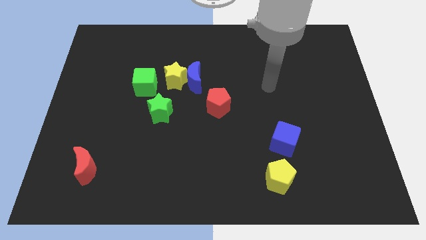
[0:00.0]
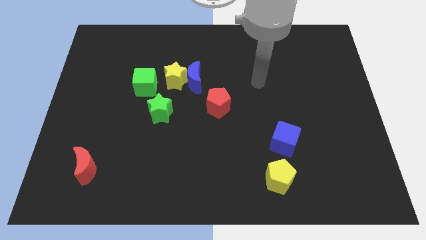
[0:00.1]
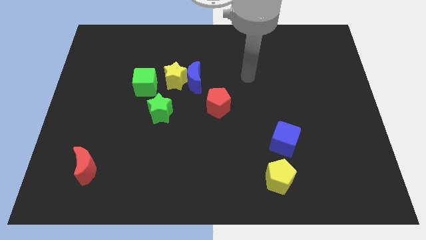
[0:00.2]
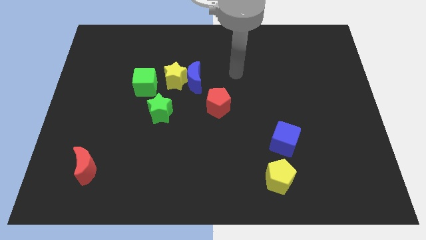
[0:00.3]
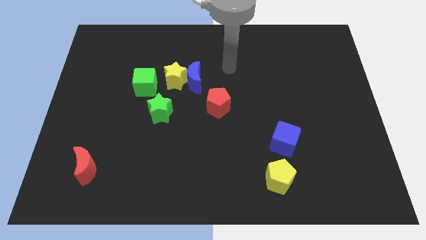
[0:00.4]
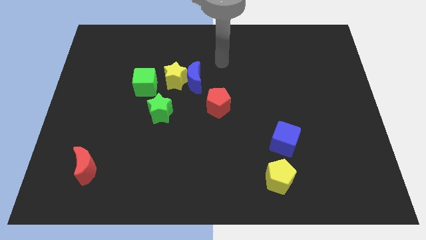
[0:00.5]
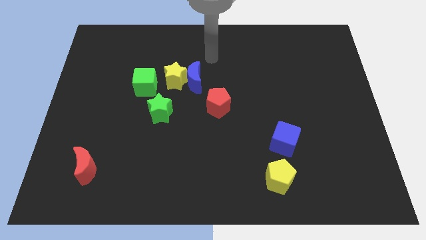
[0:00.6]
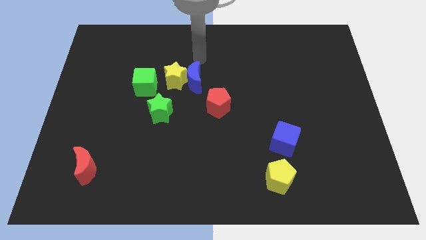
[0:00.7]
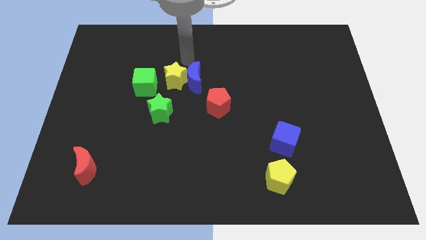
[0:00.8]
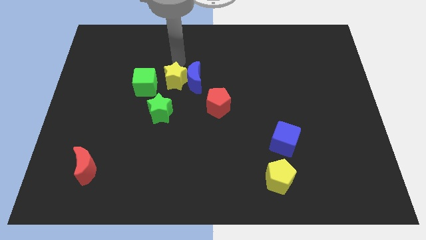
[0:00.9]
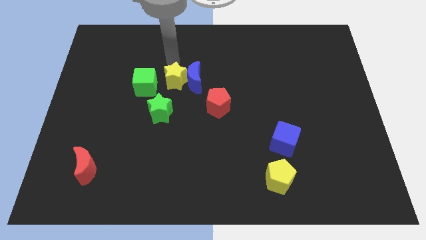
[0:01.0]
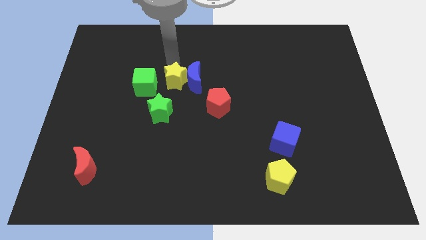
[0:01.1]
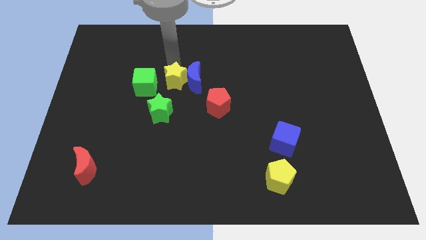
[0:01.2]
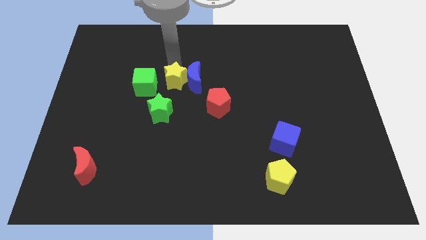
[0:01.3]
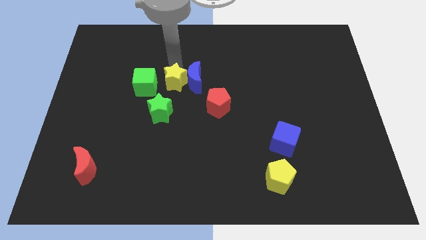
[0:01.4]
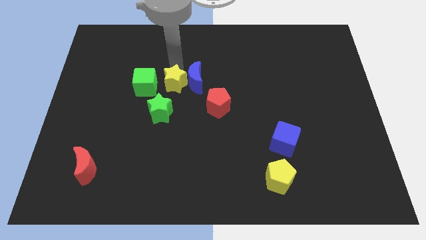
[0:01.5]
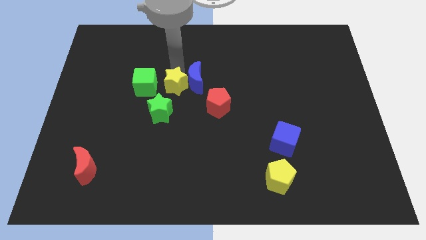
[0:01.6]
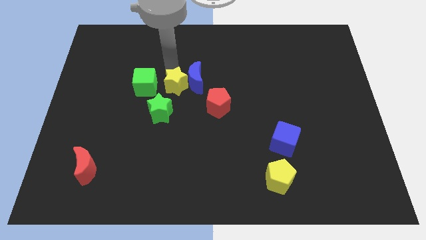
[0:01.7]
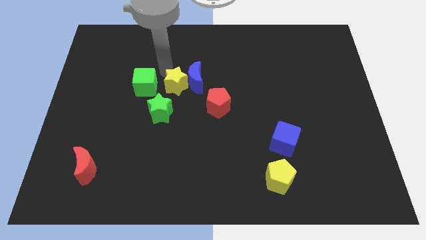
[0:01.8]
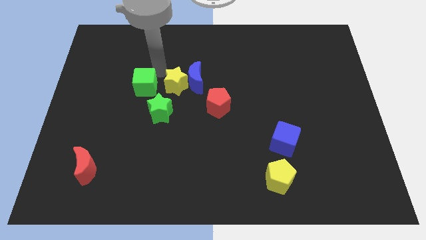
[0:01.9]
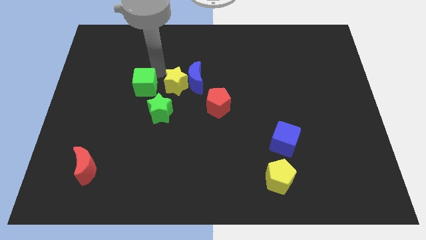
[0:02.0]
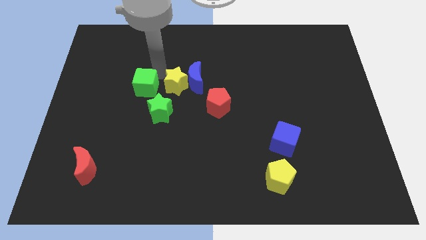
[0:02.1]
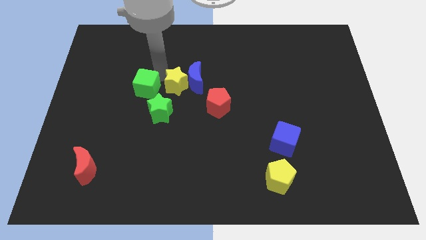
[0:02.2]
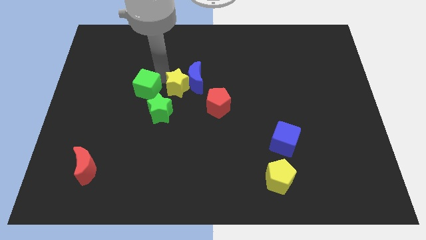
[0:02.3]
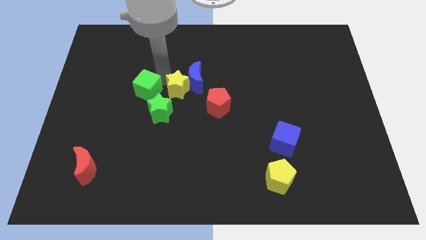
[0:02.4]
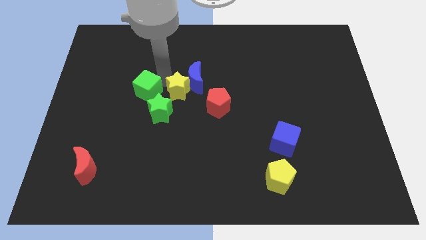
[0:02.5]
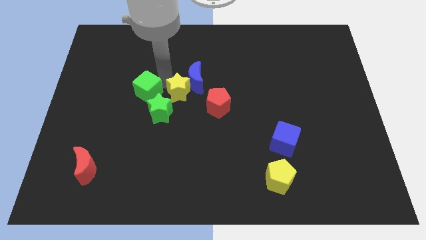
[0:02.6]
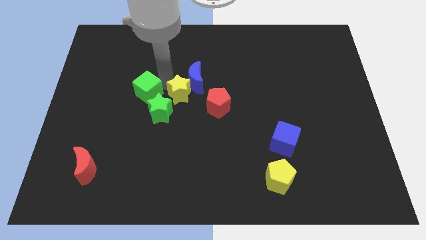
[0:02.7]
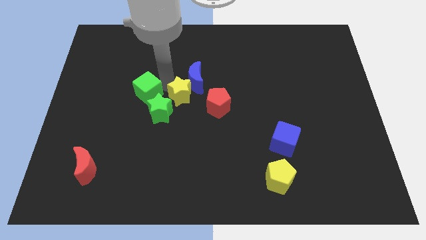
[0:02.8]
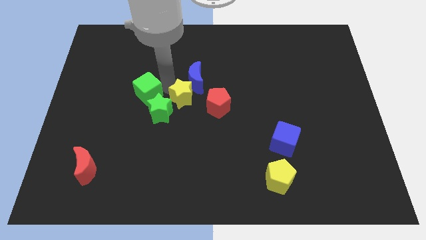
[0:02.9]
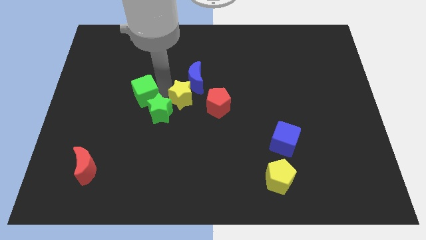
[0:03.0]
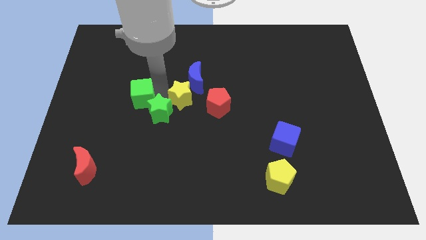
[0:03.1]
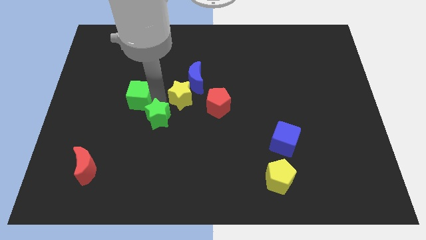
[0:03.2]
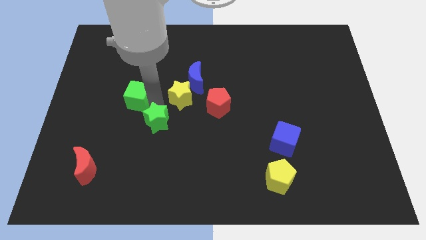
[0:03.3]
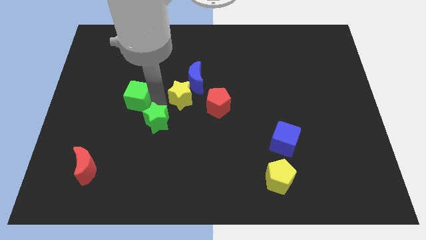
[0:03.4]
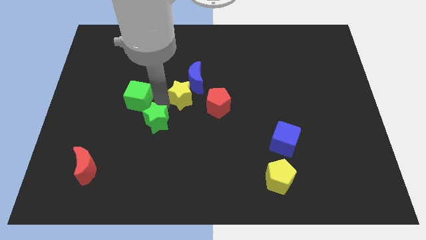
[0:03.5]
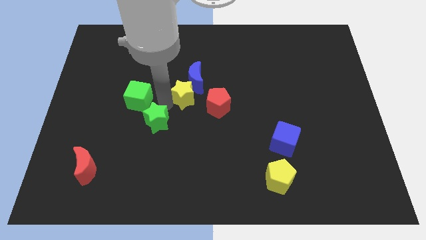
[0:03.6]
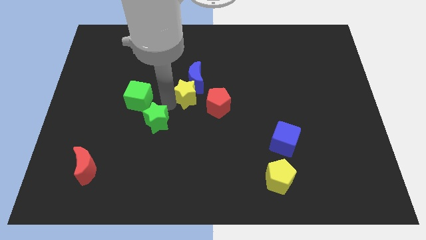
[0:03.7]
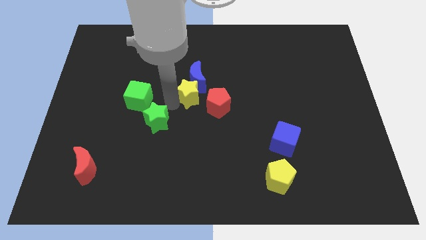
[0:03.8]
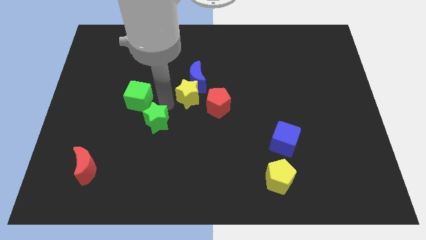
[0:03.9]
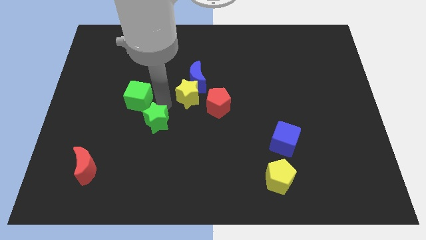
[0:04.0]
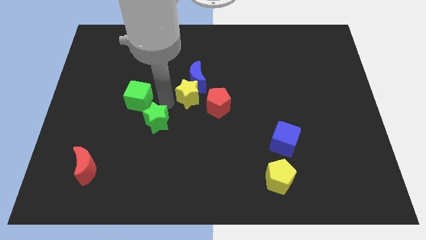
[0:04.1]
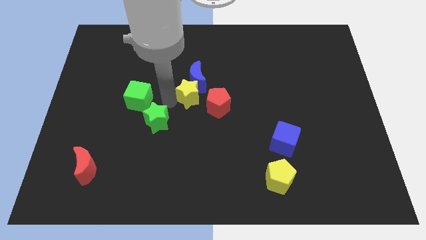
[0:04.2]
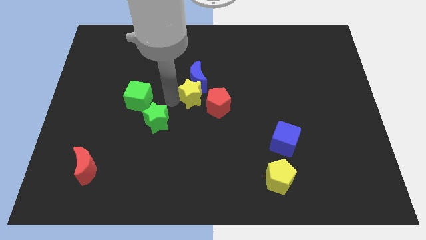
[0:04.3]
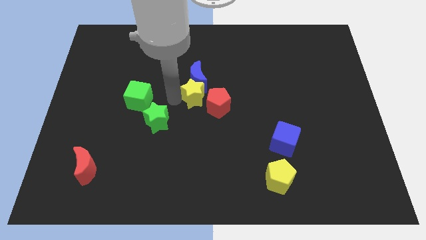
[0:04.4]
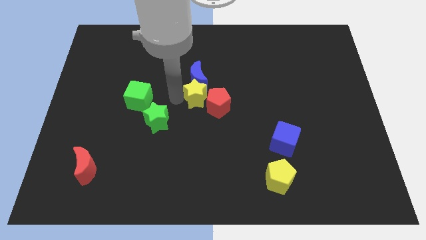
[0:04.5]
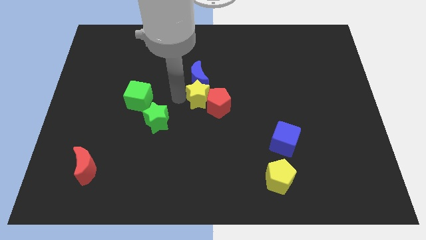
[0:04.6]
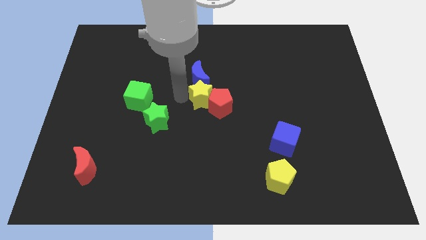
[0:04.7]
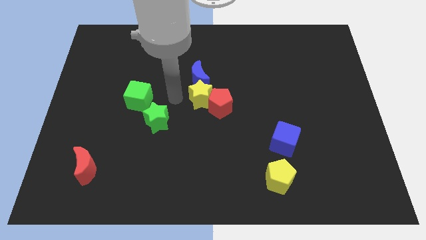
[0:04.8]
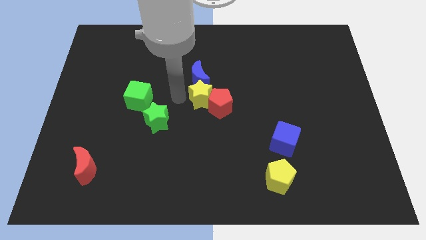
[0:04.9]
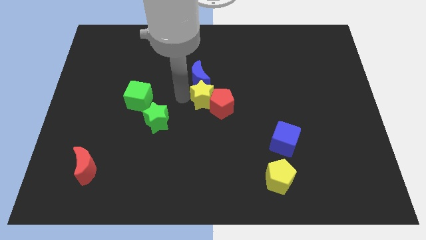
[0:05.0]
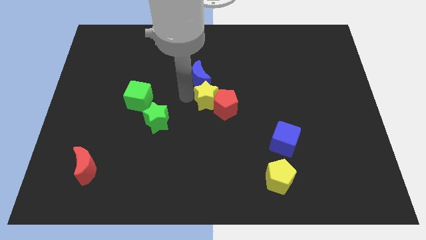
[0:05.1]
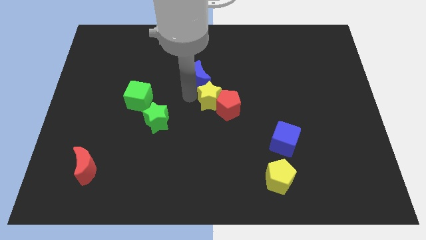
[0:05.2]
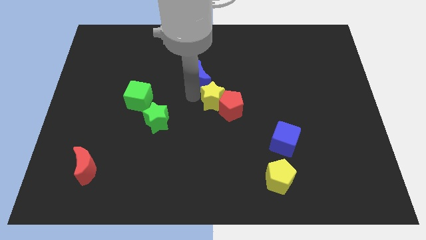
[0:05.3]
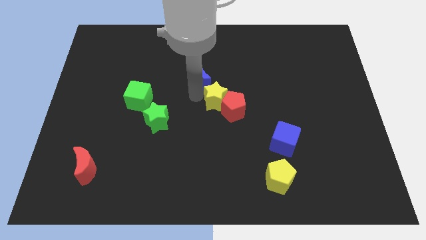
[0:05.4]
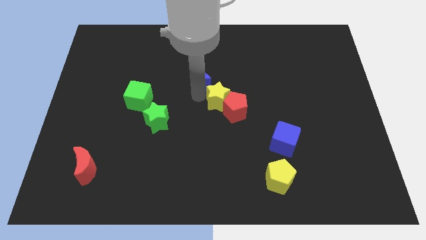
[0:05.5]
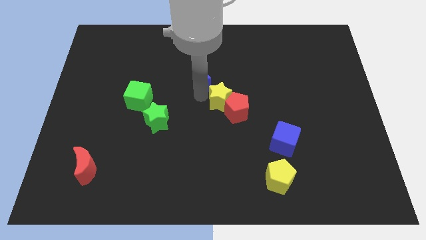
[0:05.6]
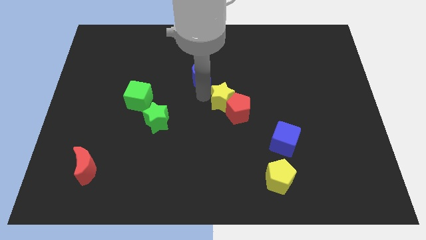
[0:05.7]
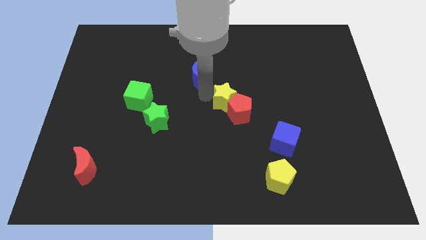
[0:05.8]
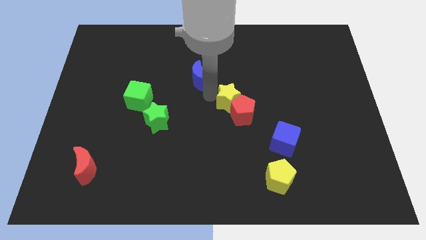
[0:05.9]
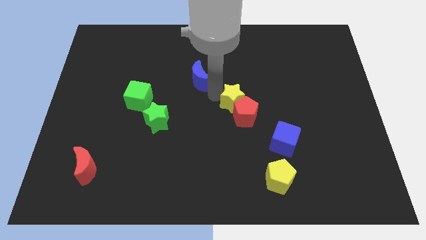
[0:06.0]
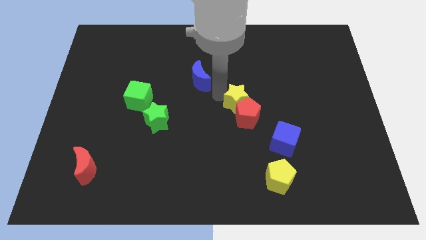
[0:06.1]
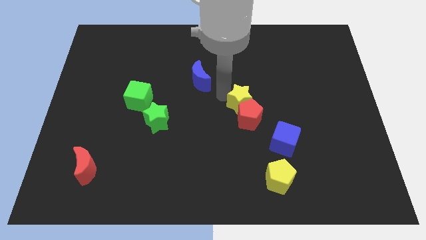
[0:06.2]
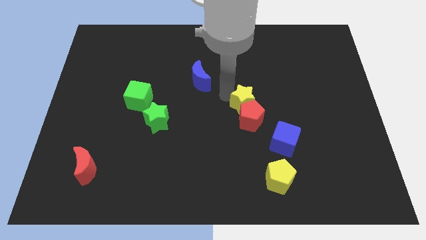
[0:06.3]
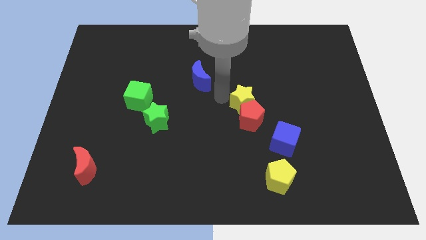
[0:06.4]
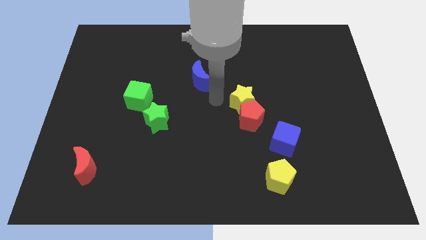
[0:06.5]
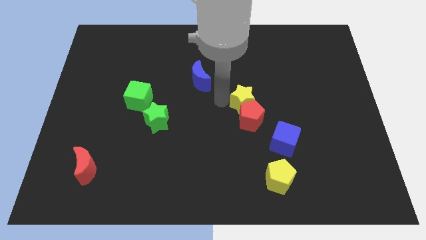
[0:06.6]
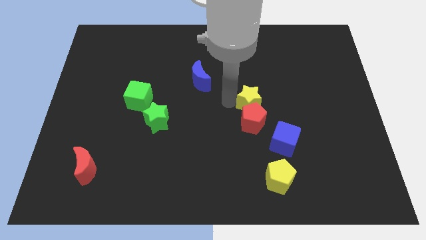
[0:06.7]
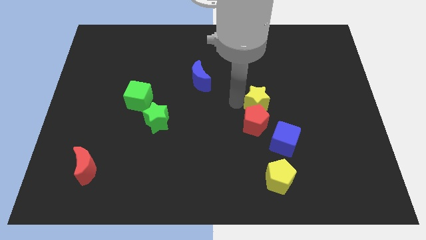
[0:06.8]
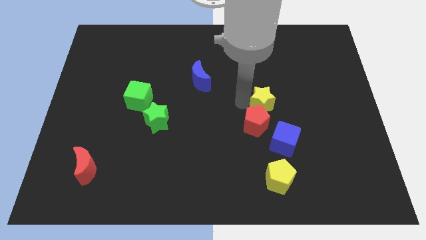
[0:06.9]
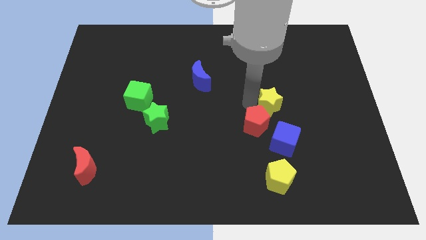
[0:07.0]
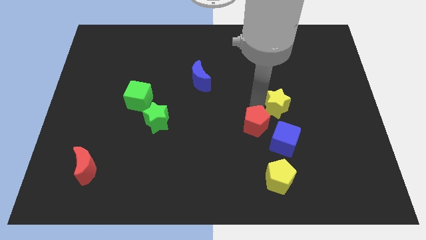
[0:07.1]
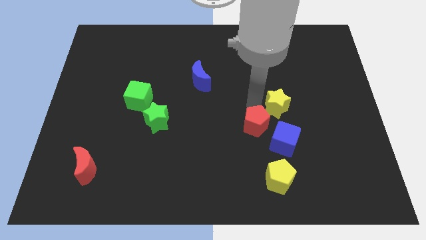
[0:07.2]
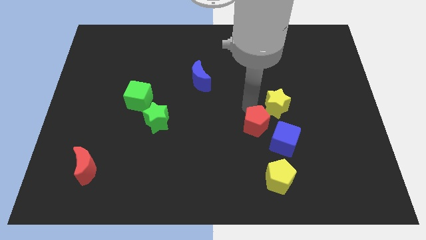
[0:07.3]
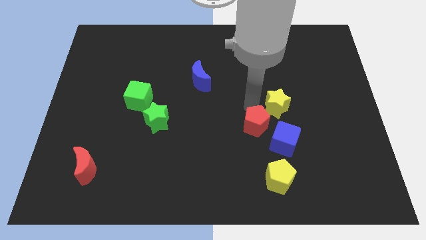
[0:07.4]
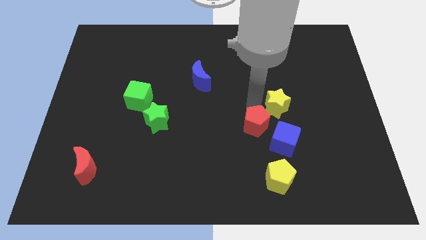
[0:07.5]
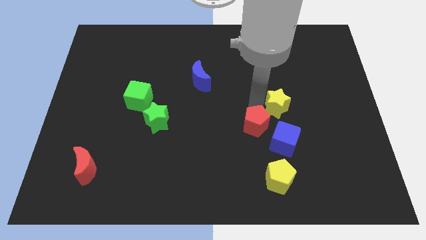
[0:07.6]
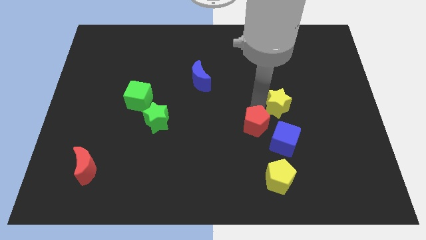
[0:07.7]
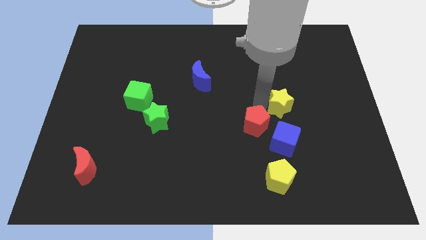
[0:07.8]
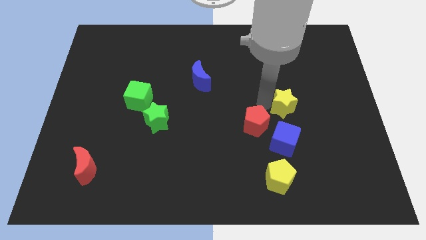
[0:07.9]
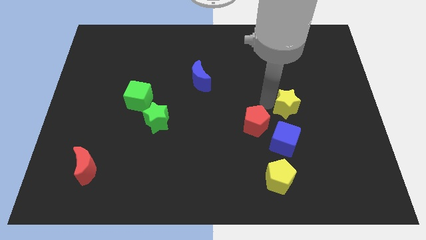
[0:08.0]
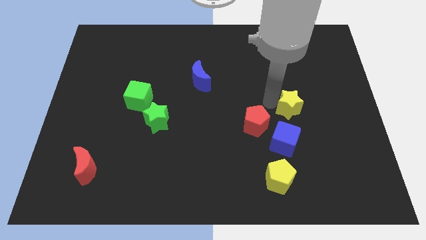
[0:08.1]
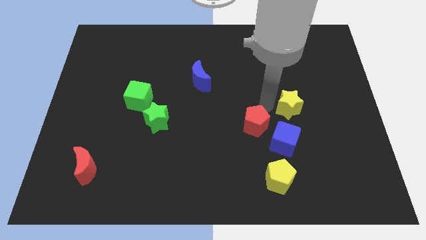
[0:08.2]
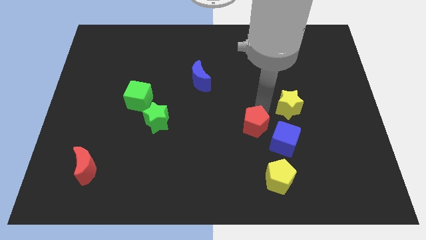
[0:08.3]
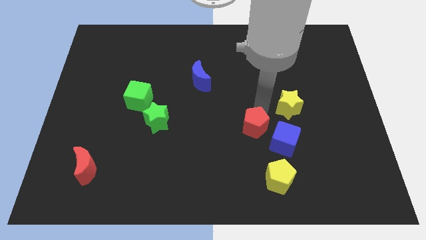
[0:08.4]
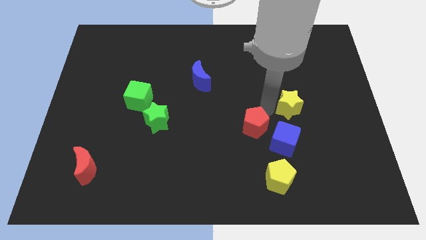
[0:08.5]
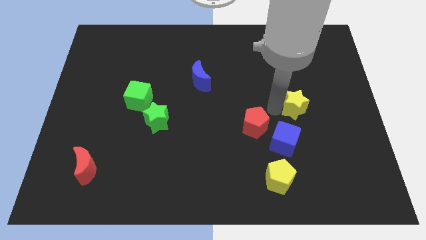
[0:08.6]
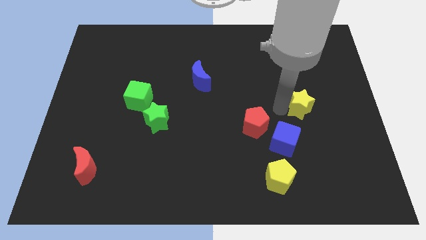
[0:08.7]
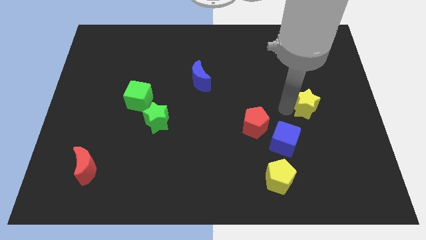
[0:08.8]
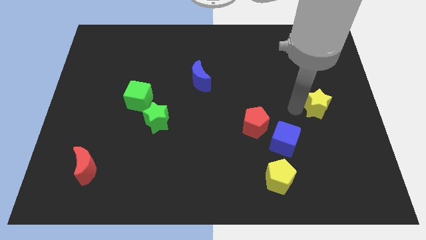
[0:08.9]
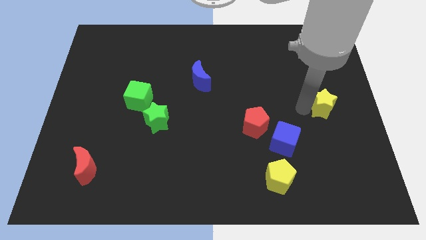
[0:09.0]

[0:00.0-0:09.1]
slide the yellow star to the right side
